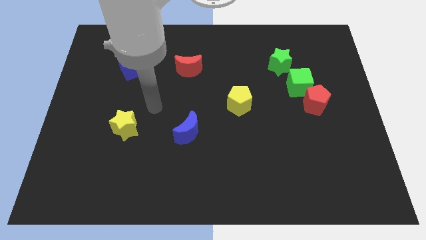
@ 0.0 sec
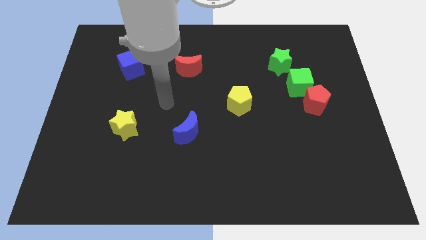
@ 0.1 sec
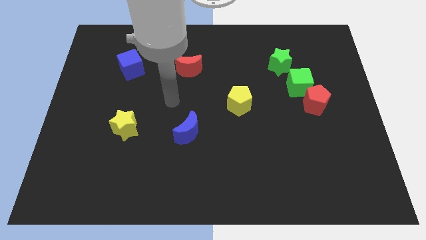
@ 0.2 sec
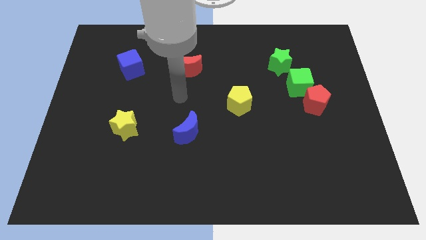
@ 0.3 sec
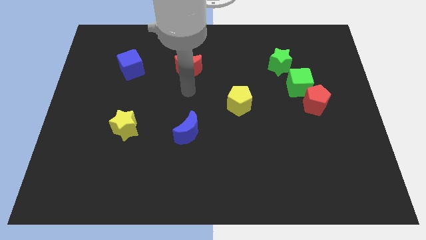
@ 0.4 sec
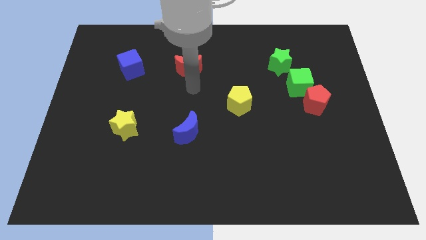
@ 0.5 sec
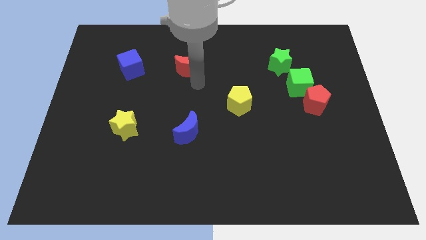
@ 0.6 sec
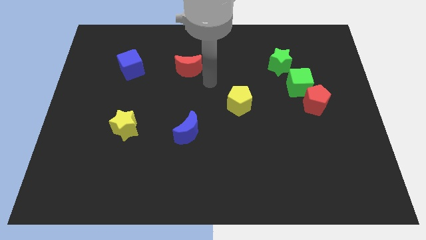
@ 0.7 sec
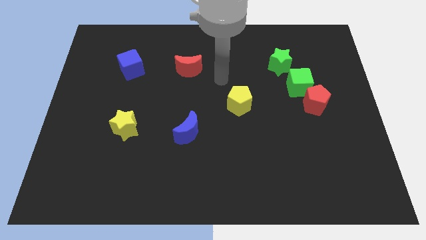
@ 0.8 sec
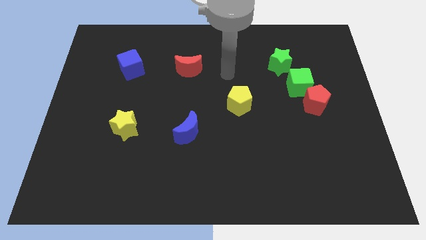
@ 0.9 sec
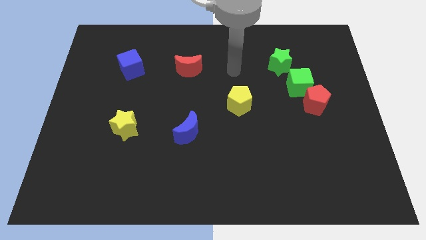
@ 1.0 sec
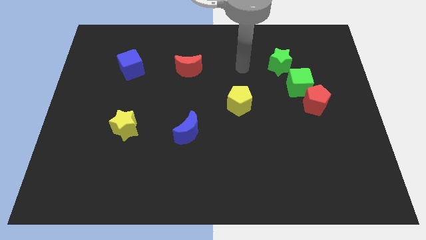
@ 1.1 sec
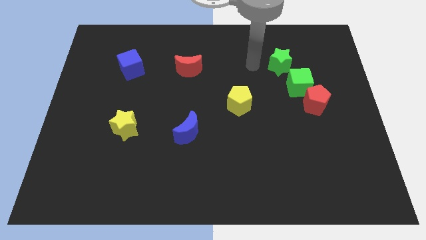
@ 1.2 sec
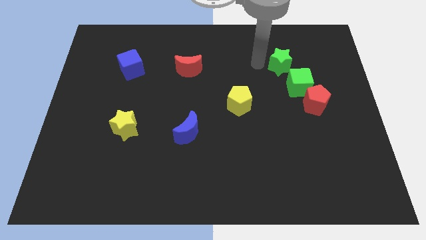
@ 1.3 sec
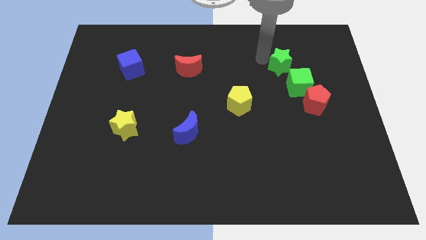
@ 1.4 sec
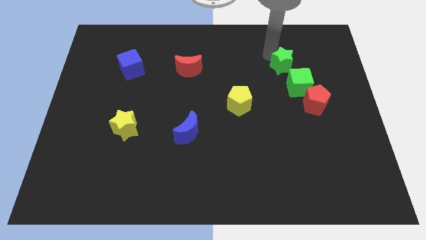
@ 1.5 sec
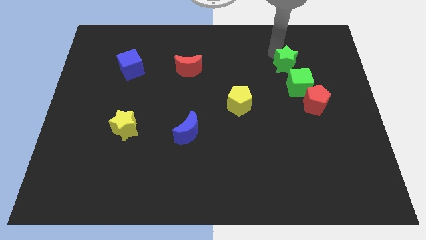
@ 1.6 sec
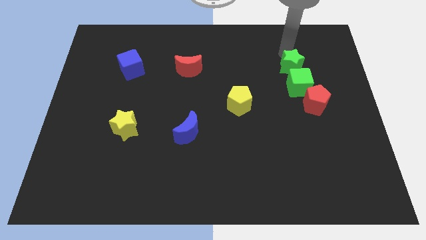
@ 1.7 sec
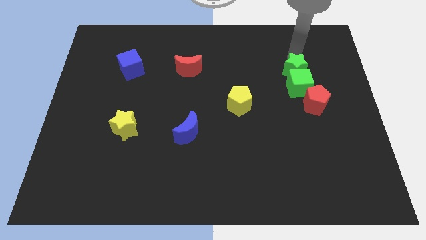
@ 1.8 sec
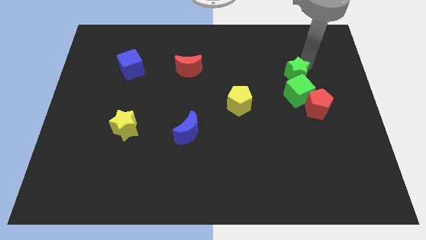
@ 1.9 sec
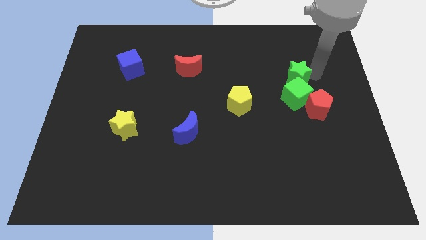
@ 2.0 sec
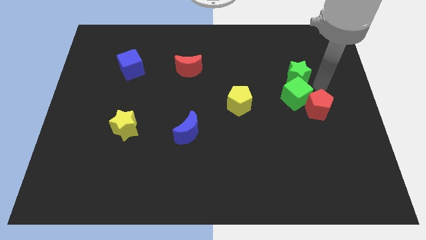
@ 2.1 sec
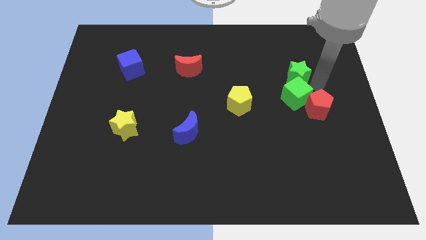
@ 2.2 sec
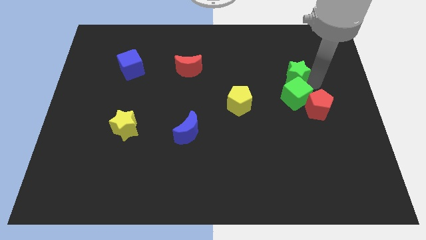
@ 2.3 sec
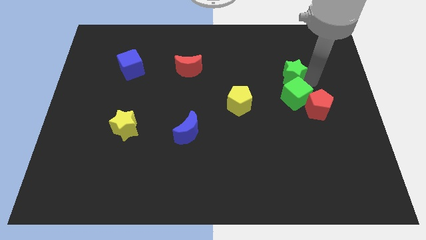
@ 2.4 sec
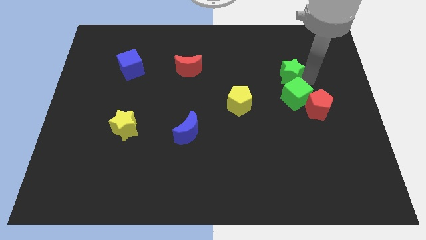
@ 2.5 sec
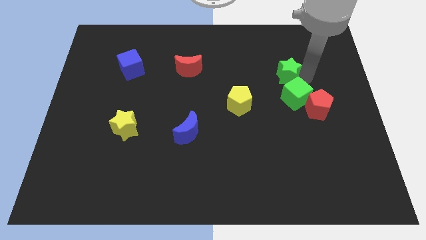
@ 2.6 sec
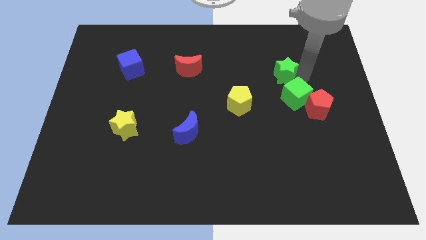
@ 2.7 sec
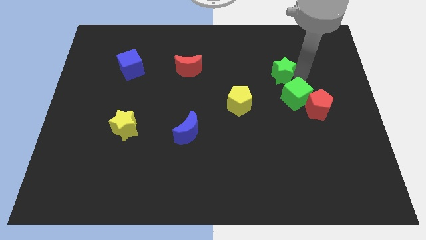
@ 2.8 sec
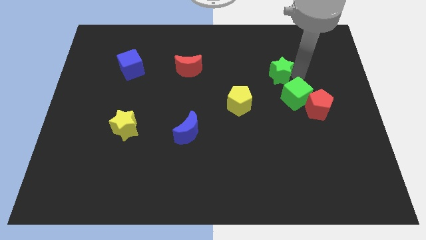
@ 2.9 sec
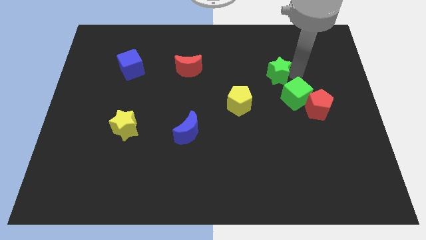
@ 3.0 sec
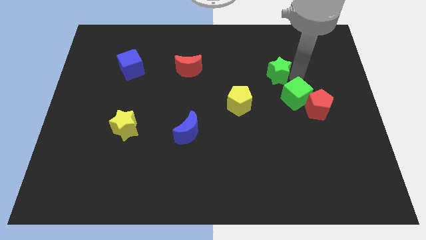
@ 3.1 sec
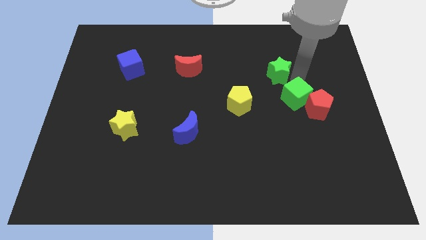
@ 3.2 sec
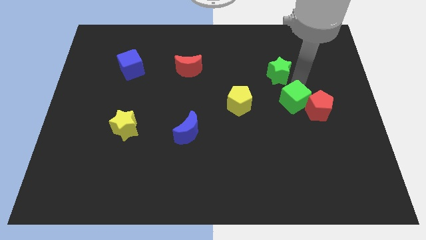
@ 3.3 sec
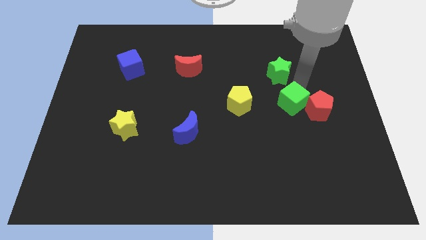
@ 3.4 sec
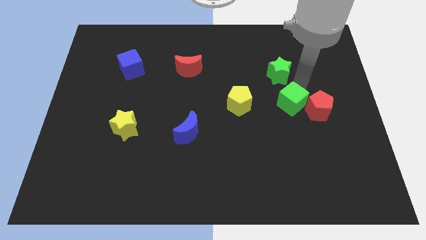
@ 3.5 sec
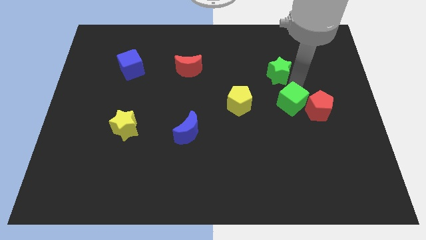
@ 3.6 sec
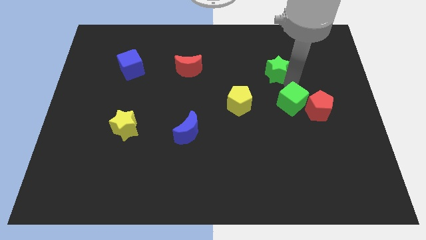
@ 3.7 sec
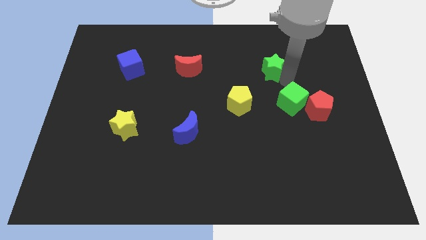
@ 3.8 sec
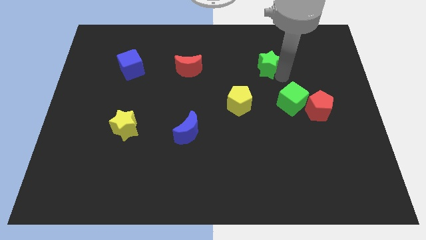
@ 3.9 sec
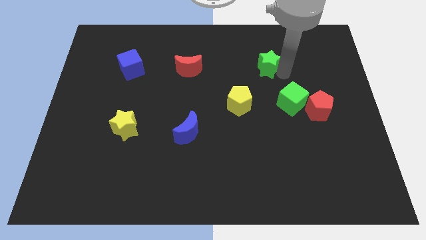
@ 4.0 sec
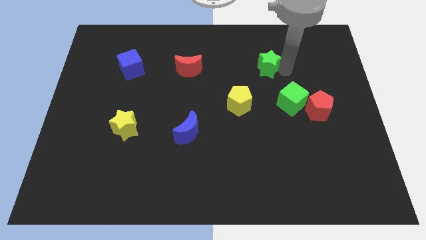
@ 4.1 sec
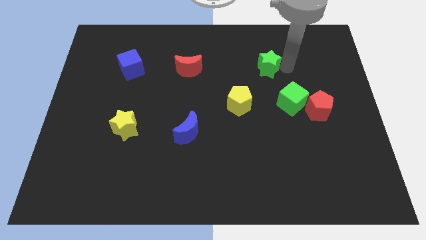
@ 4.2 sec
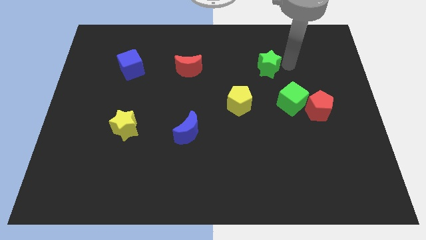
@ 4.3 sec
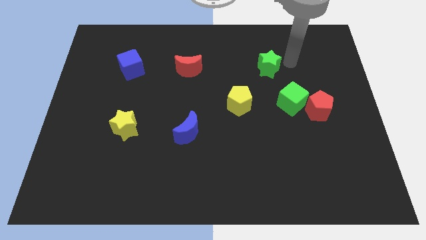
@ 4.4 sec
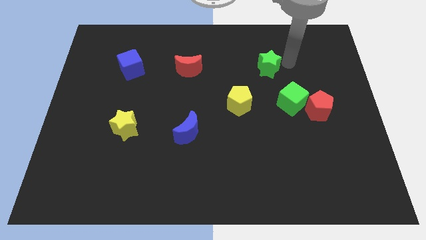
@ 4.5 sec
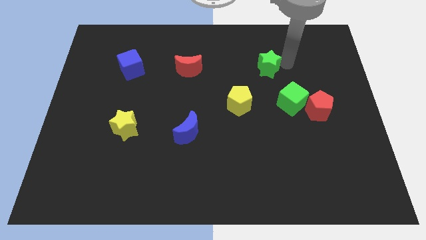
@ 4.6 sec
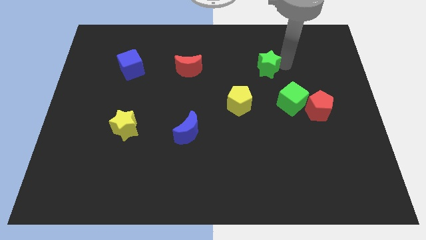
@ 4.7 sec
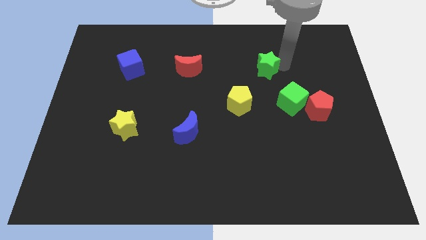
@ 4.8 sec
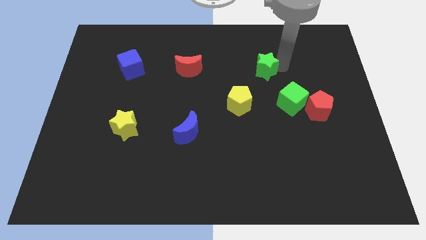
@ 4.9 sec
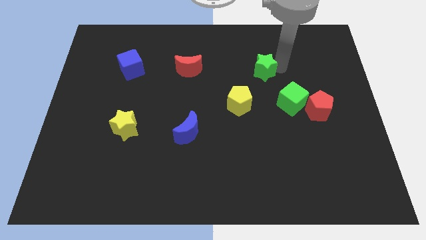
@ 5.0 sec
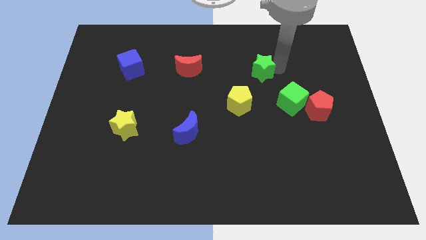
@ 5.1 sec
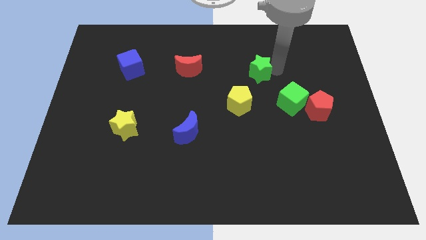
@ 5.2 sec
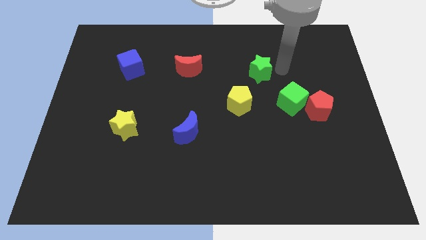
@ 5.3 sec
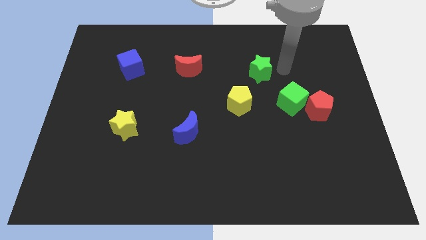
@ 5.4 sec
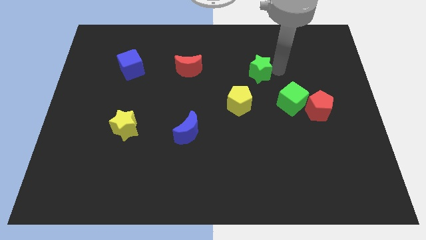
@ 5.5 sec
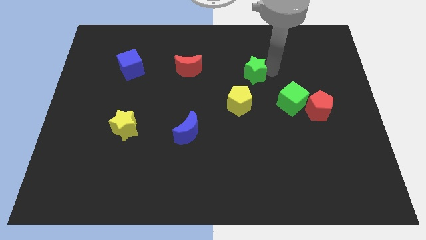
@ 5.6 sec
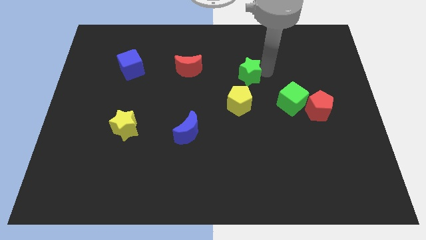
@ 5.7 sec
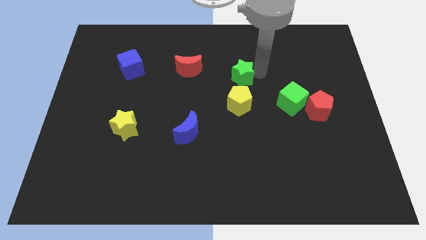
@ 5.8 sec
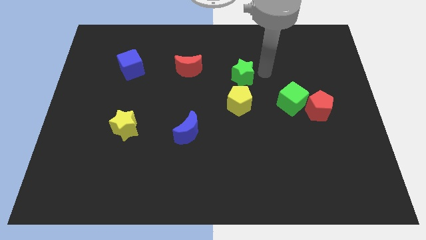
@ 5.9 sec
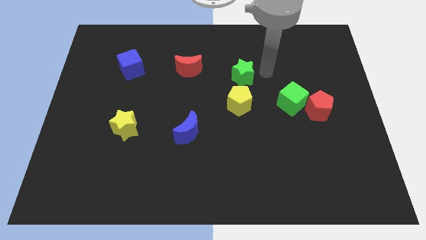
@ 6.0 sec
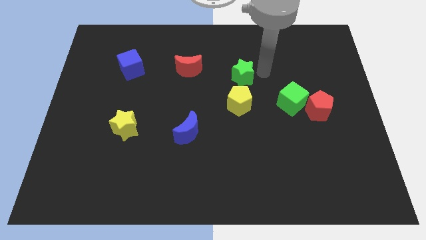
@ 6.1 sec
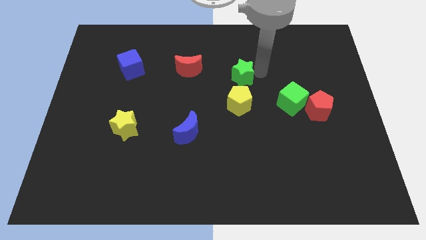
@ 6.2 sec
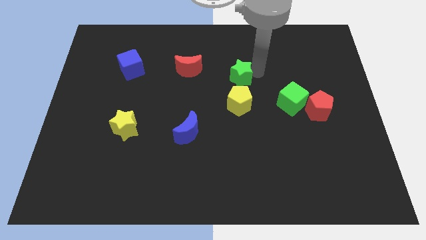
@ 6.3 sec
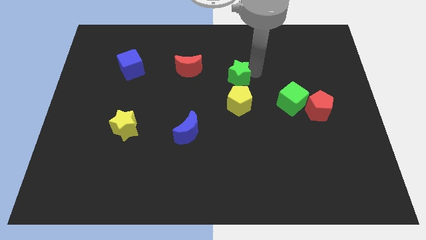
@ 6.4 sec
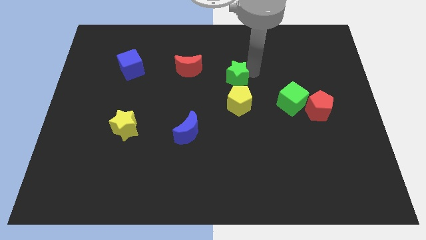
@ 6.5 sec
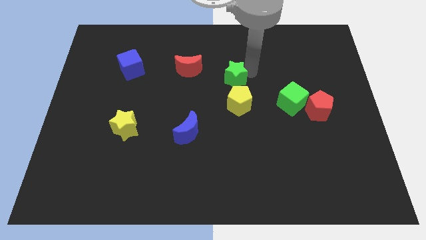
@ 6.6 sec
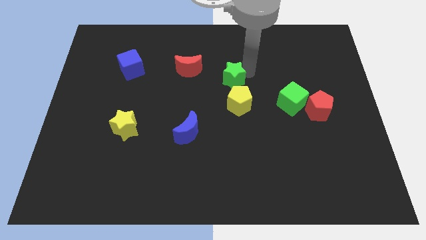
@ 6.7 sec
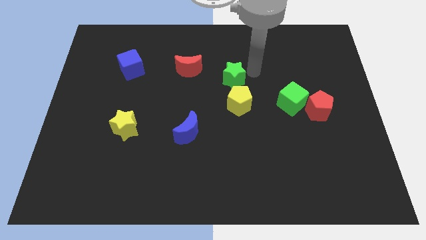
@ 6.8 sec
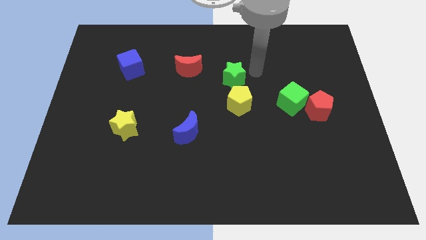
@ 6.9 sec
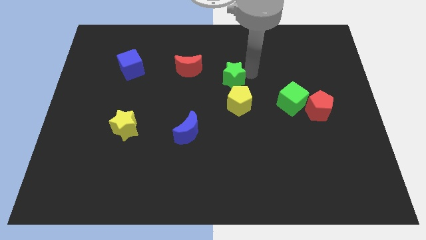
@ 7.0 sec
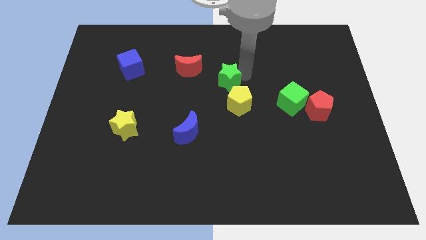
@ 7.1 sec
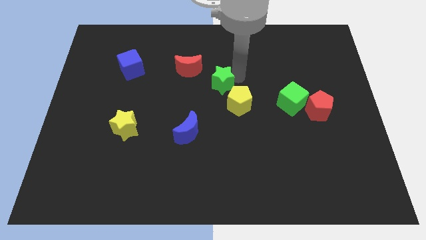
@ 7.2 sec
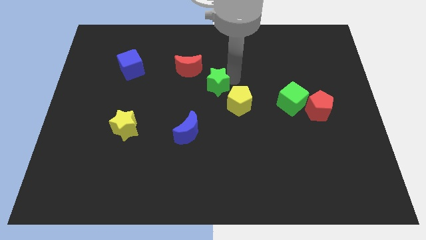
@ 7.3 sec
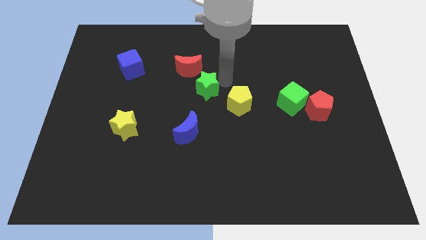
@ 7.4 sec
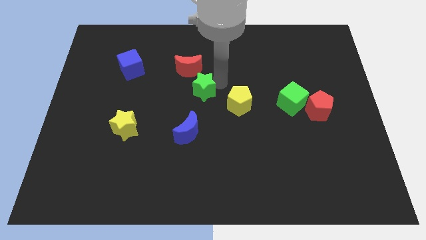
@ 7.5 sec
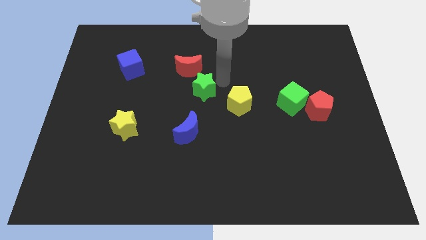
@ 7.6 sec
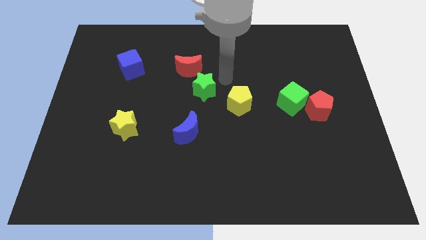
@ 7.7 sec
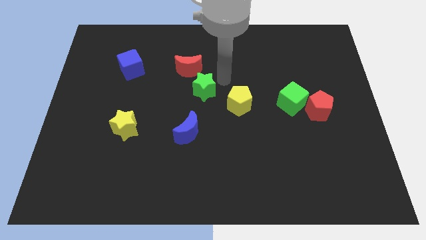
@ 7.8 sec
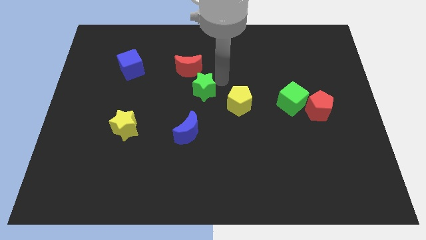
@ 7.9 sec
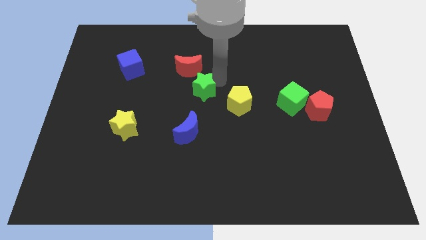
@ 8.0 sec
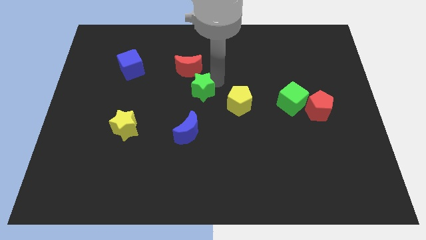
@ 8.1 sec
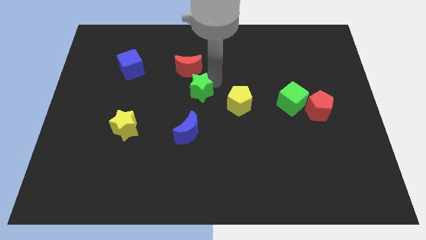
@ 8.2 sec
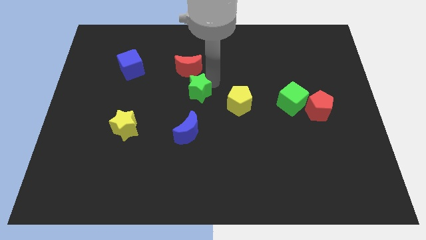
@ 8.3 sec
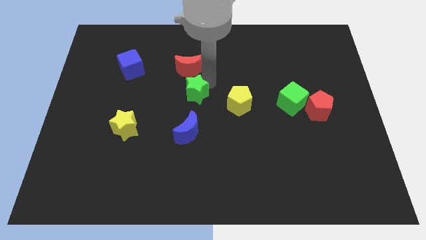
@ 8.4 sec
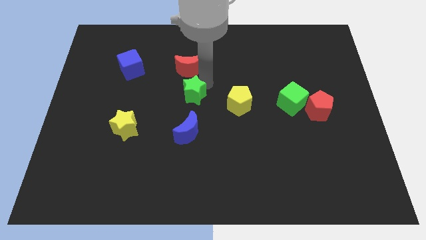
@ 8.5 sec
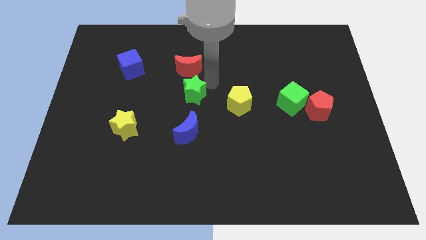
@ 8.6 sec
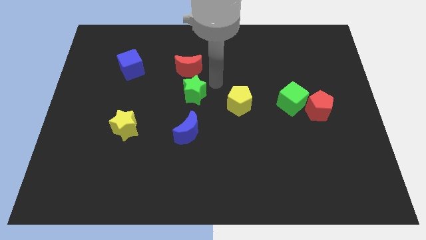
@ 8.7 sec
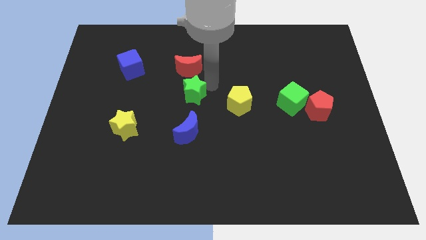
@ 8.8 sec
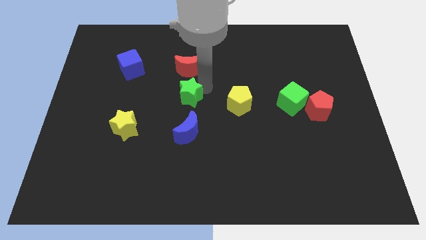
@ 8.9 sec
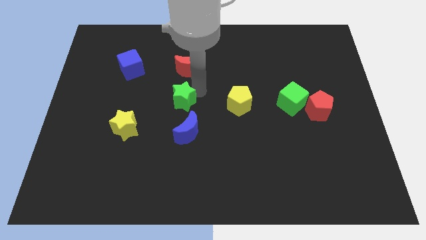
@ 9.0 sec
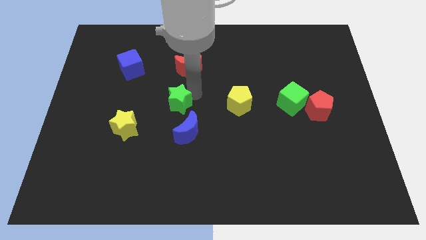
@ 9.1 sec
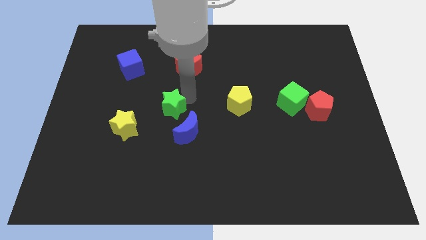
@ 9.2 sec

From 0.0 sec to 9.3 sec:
push the green star to the top right of the yellow star
